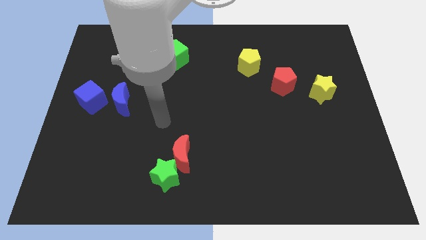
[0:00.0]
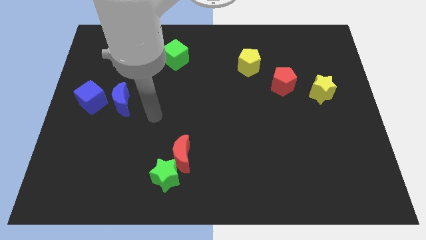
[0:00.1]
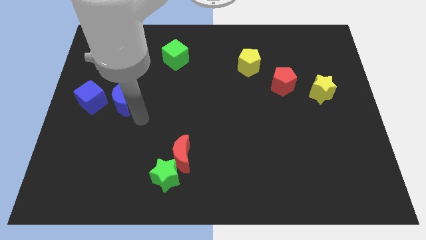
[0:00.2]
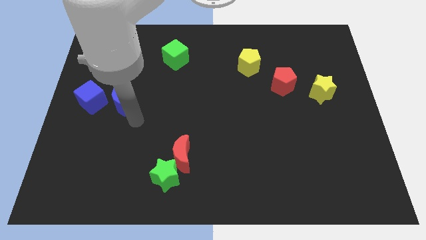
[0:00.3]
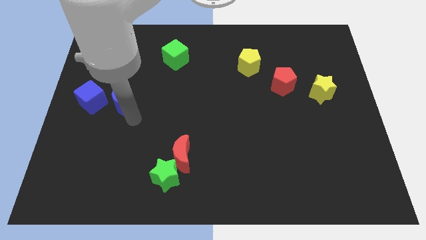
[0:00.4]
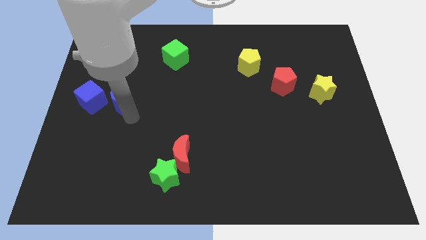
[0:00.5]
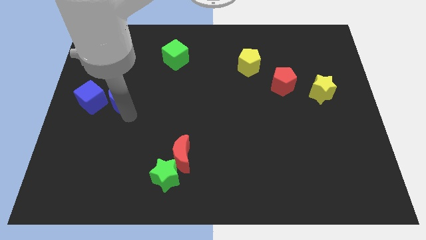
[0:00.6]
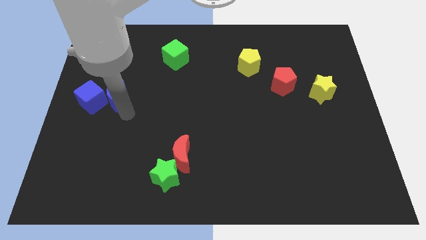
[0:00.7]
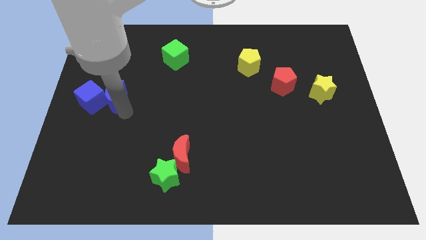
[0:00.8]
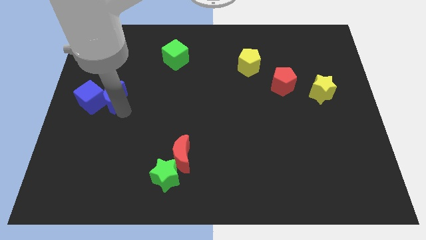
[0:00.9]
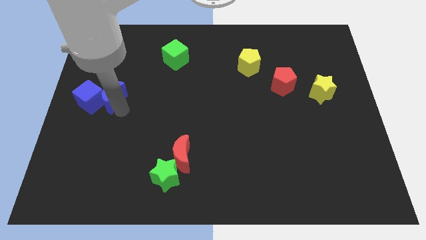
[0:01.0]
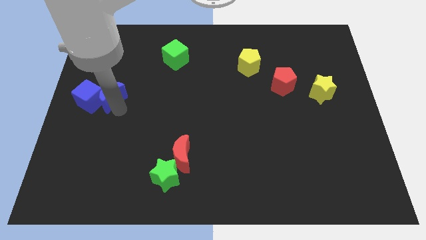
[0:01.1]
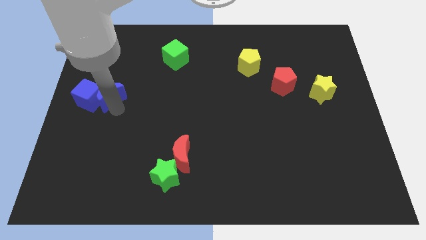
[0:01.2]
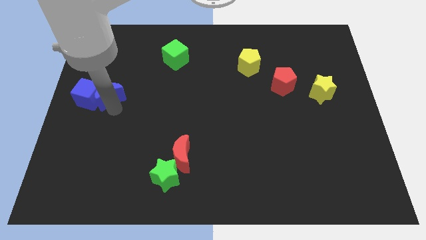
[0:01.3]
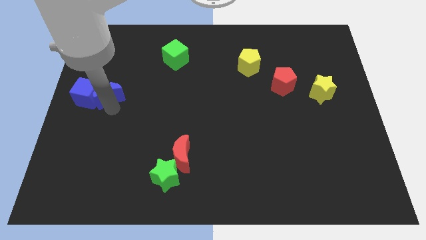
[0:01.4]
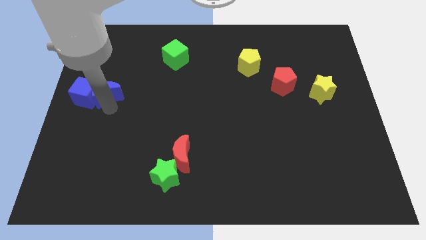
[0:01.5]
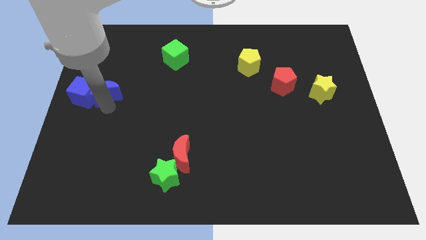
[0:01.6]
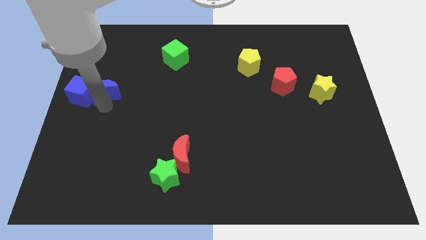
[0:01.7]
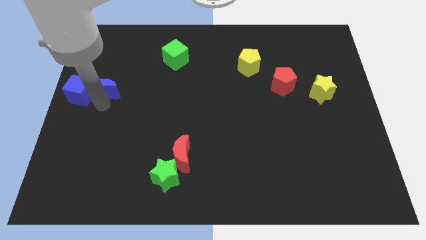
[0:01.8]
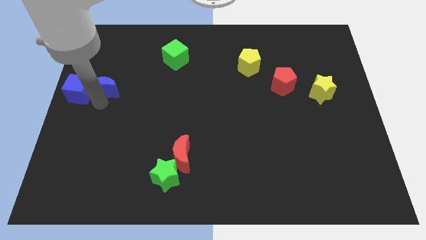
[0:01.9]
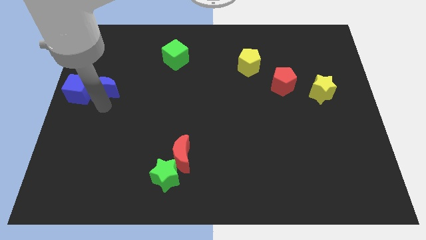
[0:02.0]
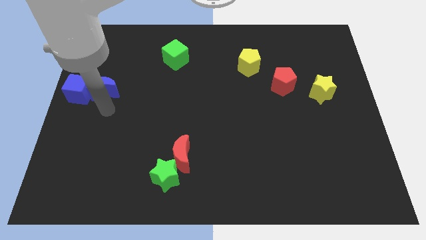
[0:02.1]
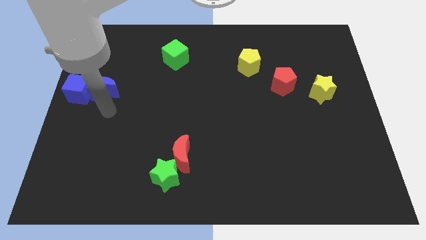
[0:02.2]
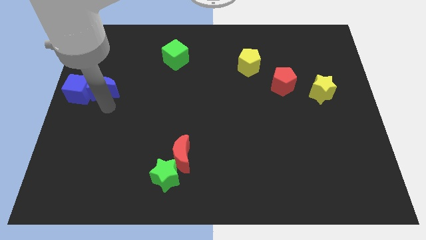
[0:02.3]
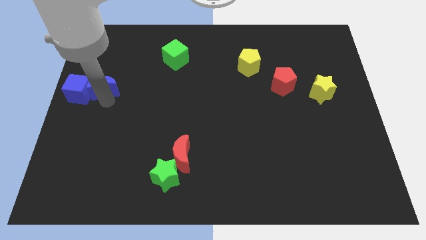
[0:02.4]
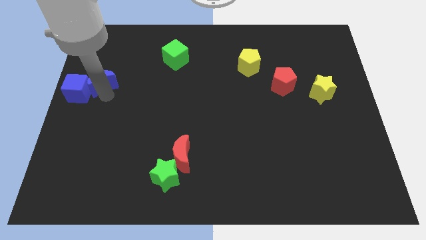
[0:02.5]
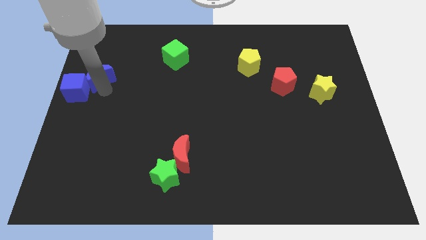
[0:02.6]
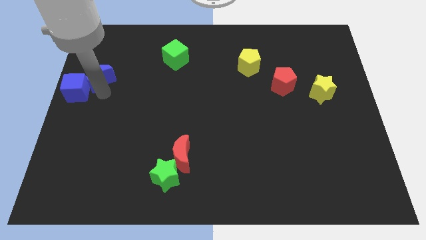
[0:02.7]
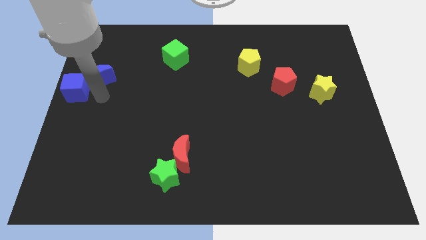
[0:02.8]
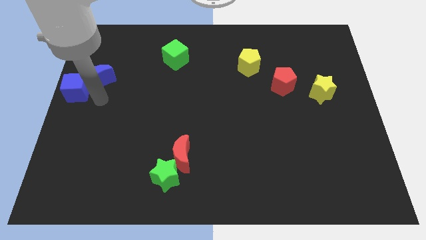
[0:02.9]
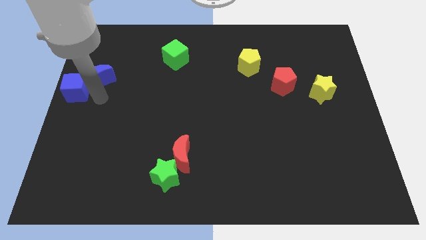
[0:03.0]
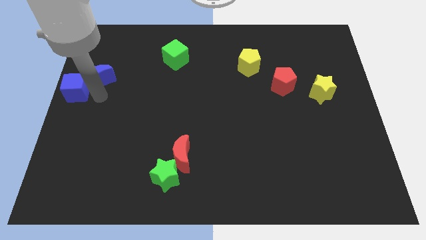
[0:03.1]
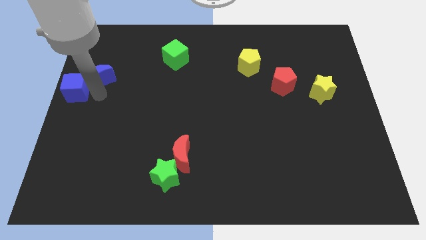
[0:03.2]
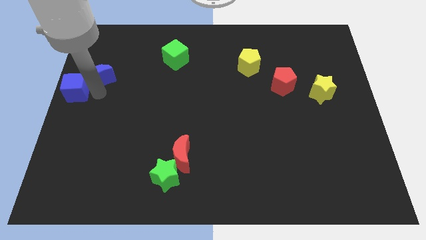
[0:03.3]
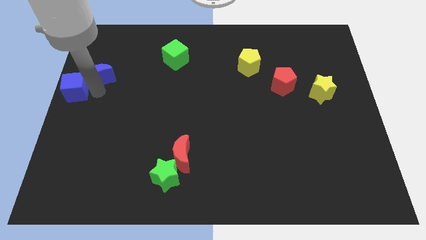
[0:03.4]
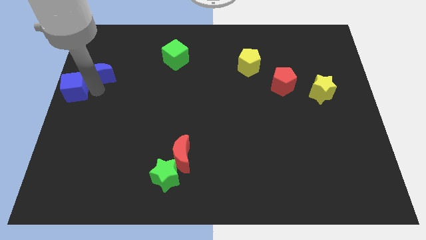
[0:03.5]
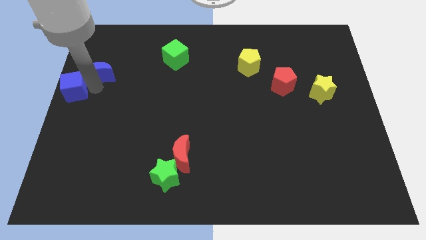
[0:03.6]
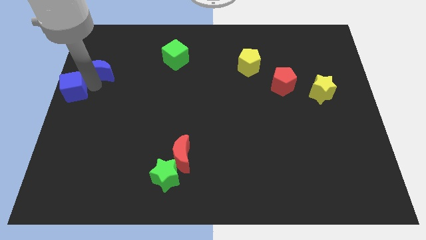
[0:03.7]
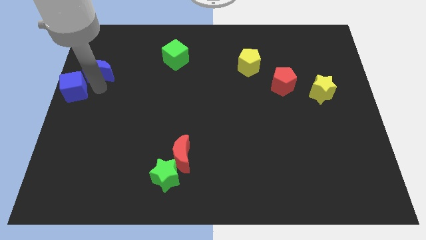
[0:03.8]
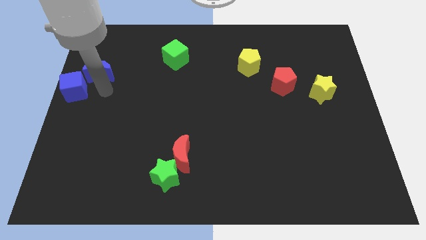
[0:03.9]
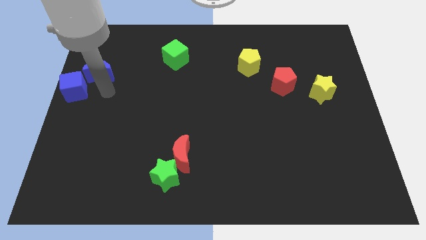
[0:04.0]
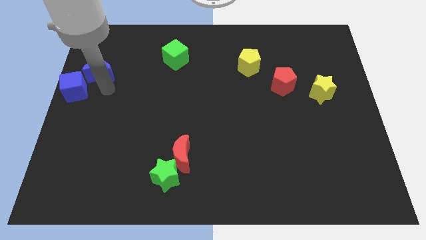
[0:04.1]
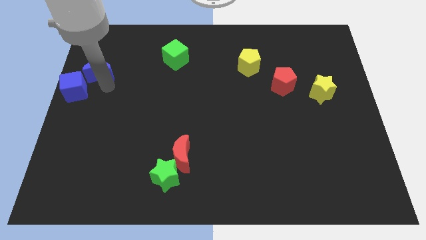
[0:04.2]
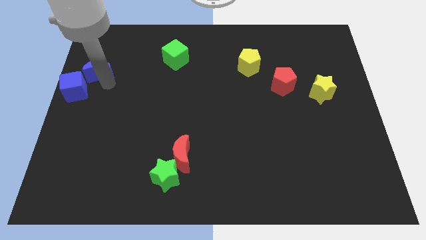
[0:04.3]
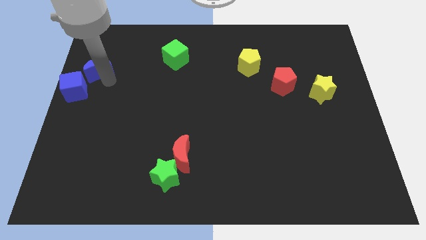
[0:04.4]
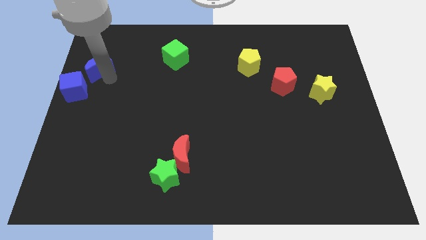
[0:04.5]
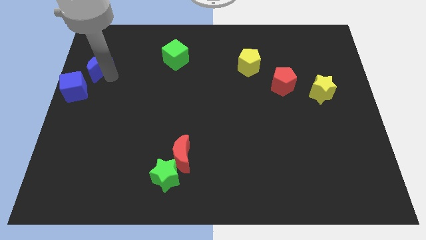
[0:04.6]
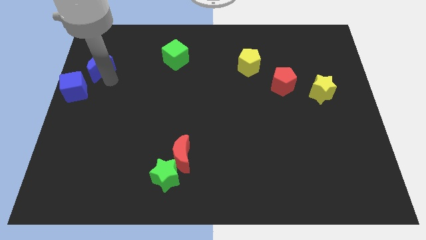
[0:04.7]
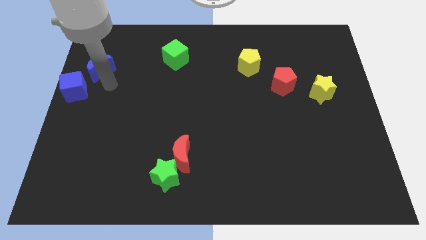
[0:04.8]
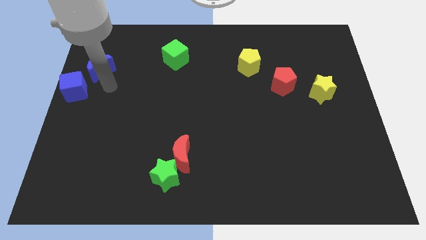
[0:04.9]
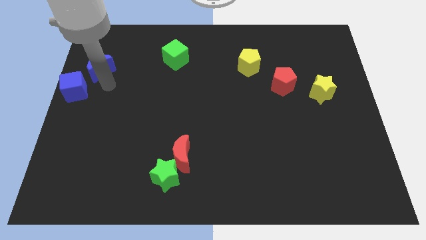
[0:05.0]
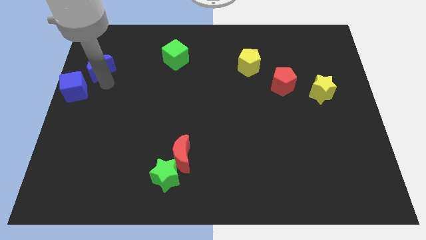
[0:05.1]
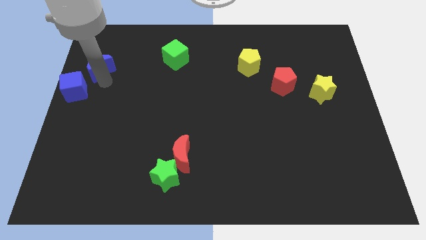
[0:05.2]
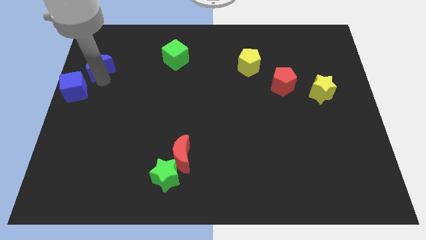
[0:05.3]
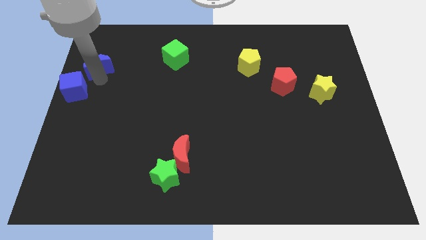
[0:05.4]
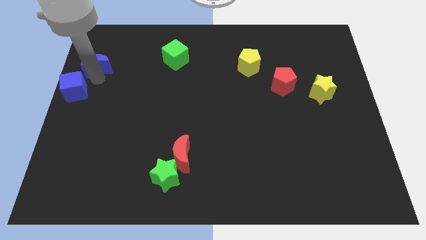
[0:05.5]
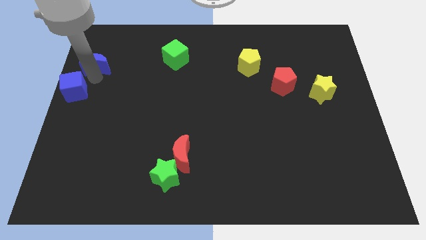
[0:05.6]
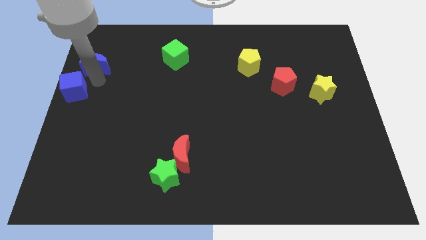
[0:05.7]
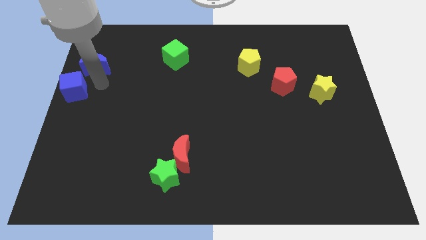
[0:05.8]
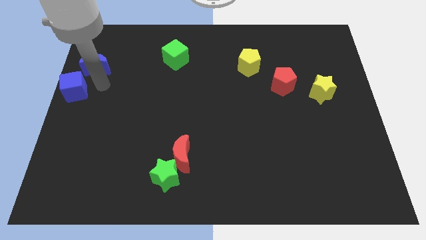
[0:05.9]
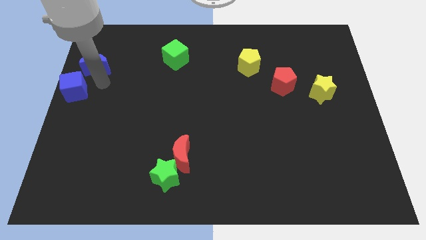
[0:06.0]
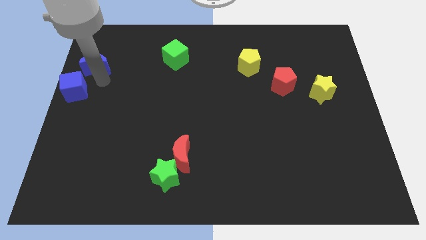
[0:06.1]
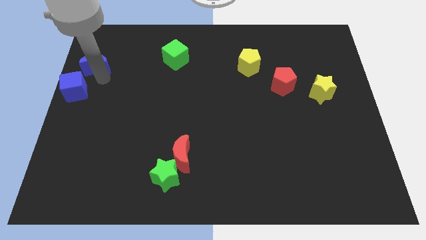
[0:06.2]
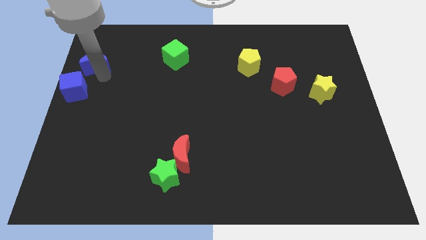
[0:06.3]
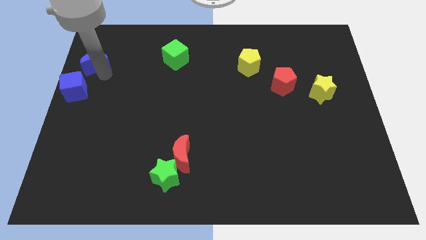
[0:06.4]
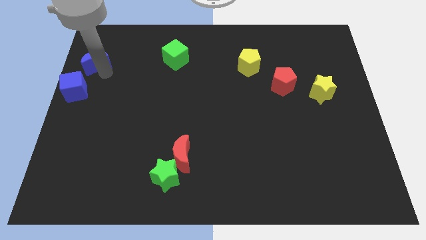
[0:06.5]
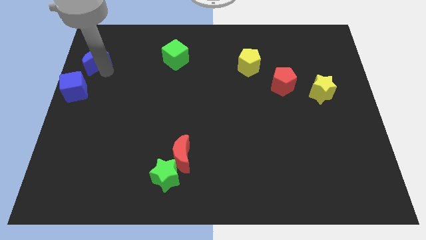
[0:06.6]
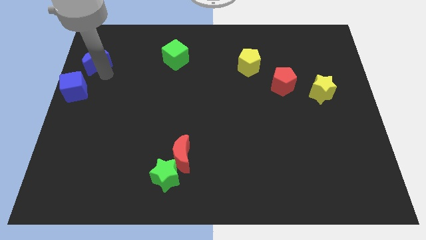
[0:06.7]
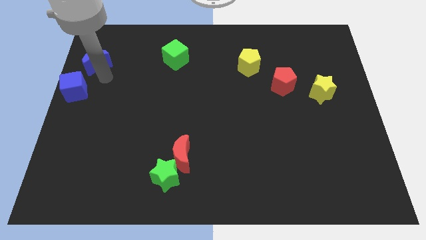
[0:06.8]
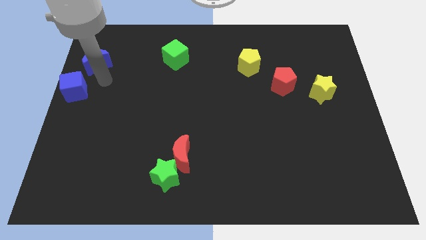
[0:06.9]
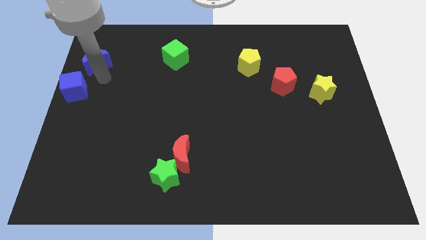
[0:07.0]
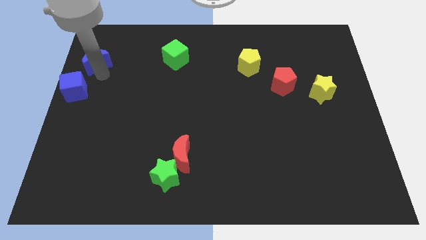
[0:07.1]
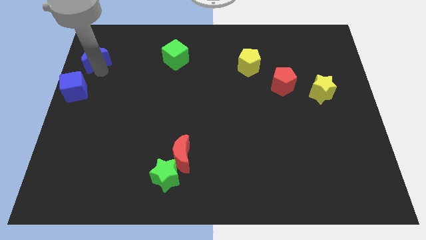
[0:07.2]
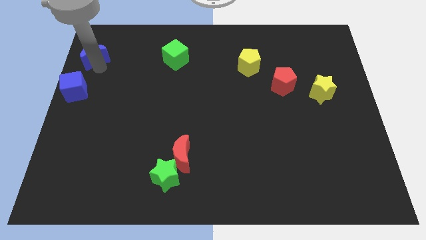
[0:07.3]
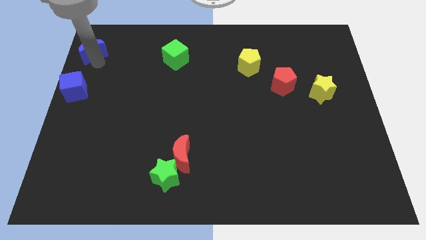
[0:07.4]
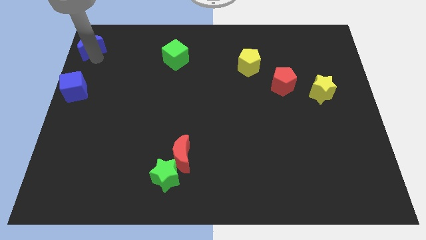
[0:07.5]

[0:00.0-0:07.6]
slide the blue moon to the top left corner
